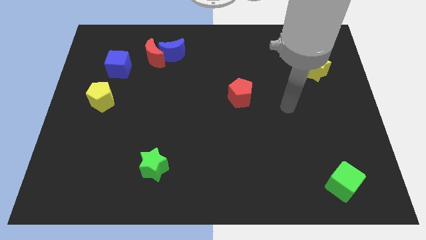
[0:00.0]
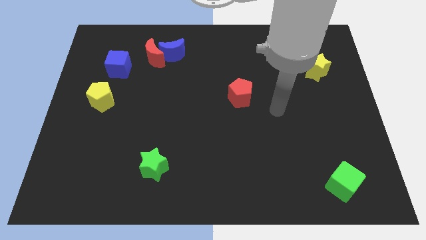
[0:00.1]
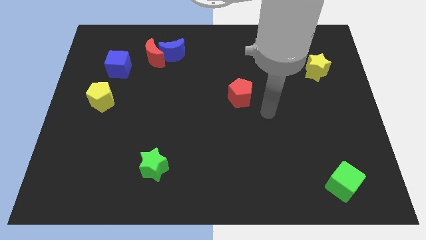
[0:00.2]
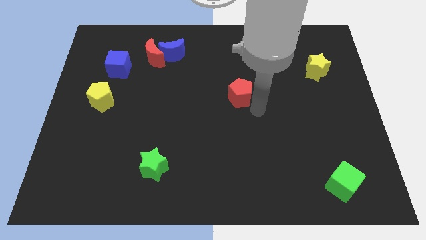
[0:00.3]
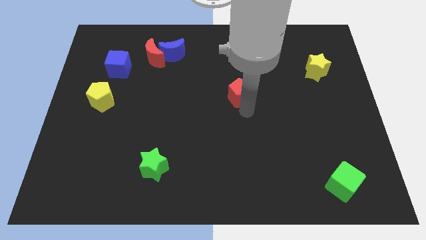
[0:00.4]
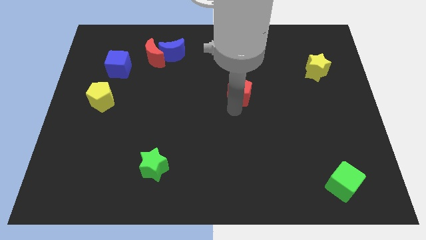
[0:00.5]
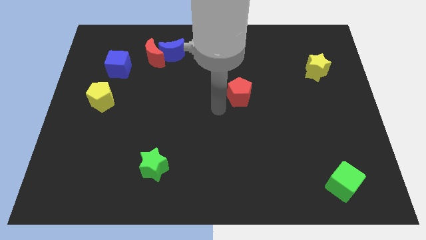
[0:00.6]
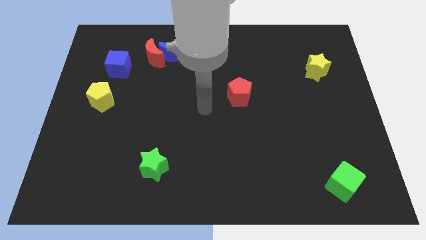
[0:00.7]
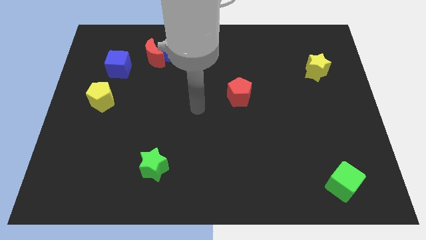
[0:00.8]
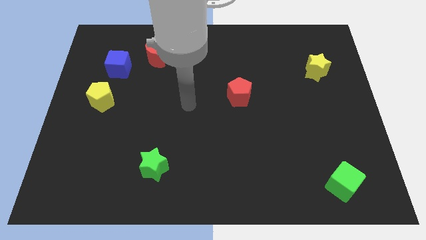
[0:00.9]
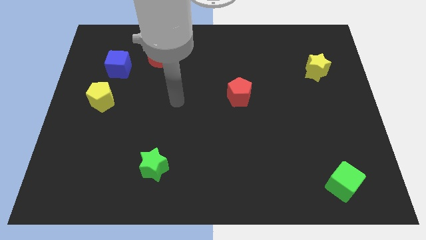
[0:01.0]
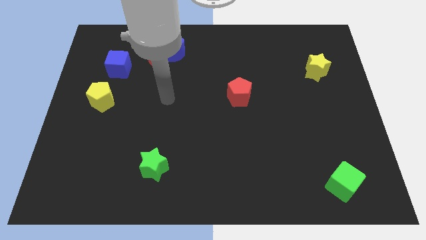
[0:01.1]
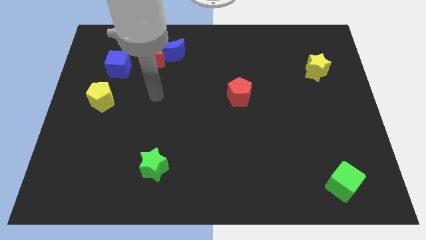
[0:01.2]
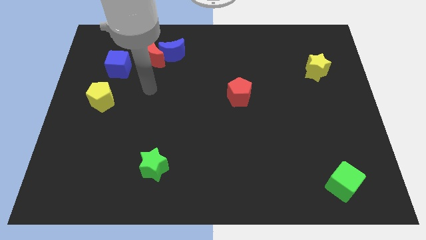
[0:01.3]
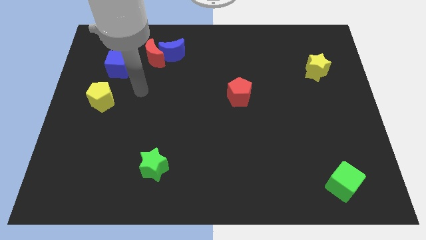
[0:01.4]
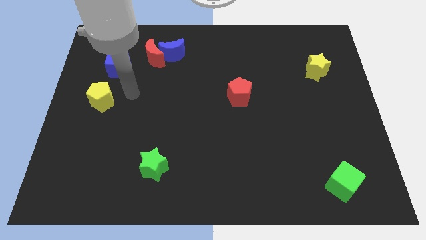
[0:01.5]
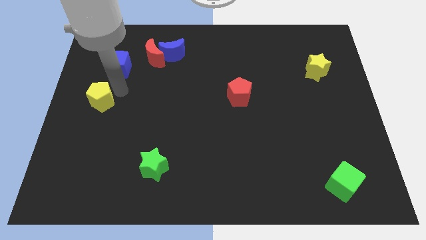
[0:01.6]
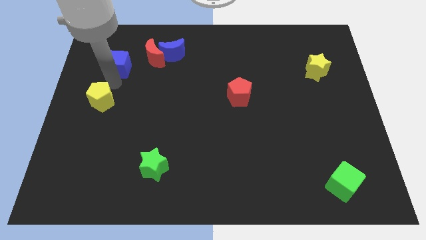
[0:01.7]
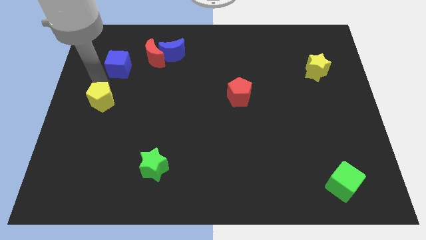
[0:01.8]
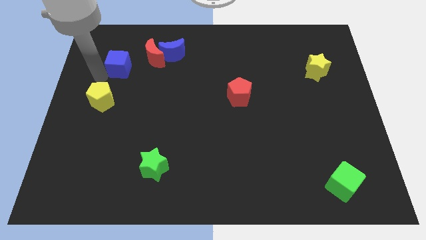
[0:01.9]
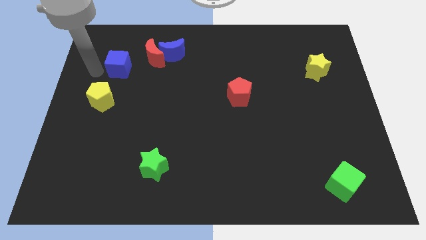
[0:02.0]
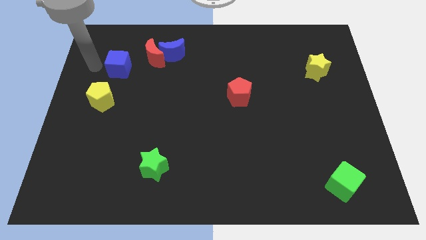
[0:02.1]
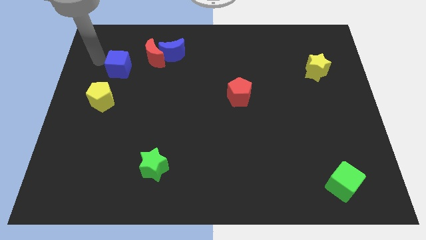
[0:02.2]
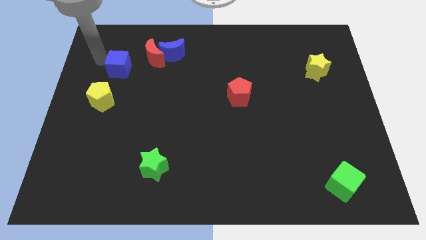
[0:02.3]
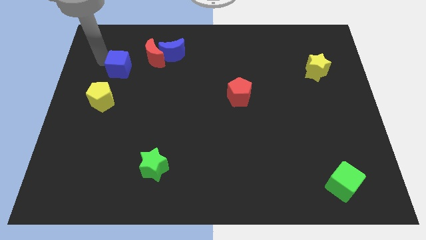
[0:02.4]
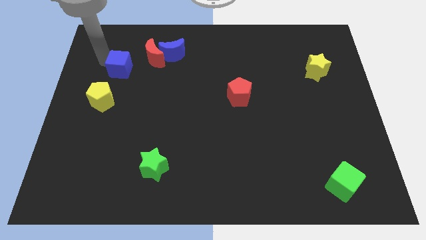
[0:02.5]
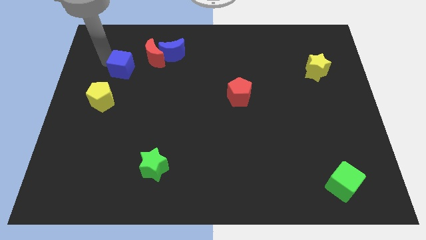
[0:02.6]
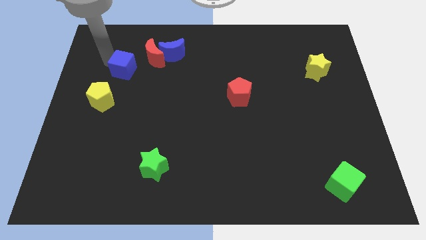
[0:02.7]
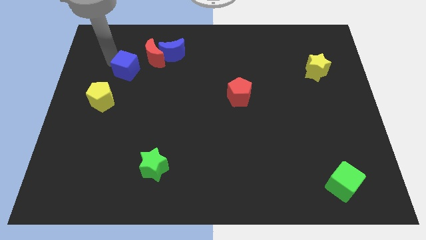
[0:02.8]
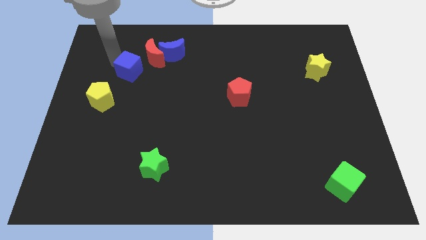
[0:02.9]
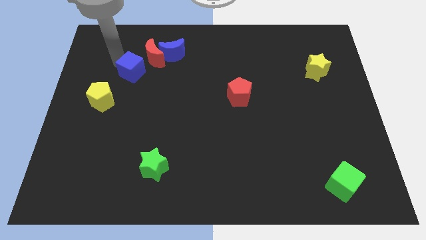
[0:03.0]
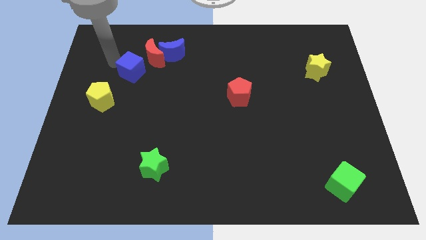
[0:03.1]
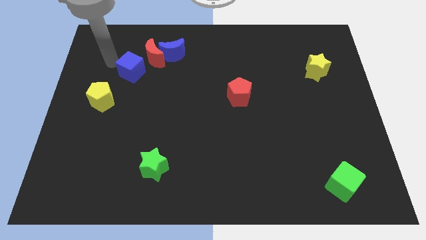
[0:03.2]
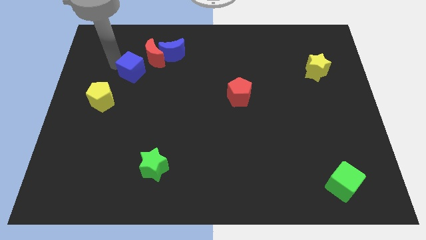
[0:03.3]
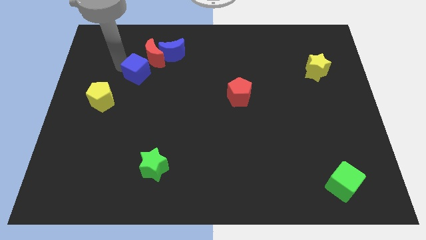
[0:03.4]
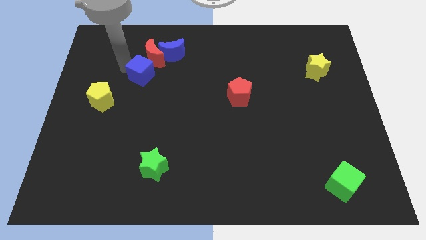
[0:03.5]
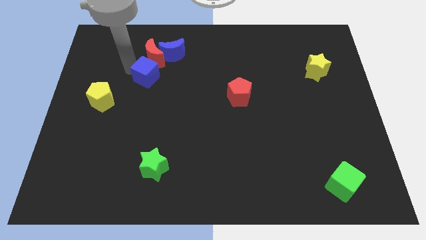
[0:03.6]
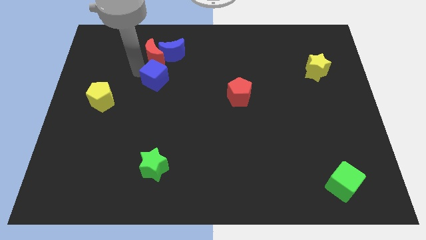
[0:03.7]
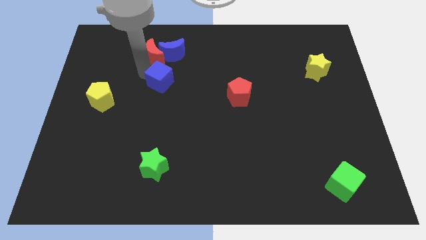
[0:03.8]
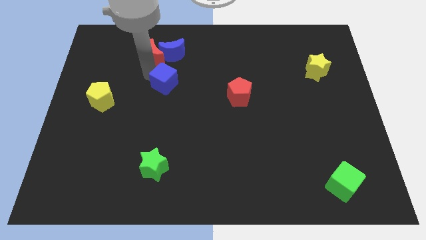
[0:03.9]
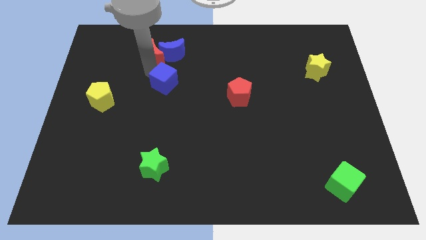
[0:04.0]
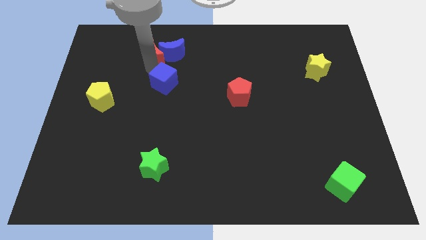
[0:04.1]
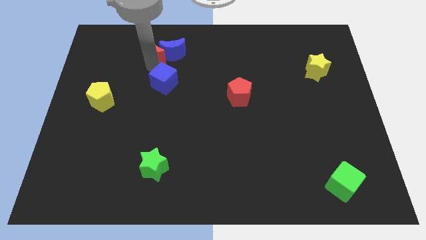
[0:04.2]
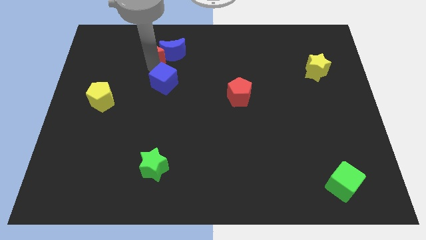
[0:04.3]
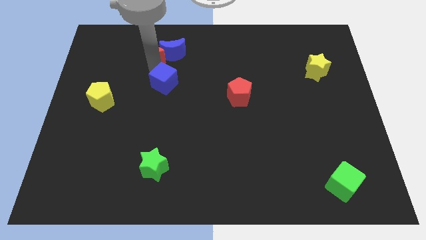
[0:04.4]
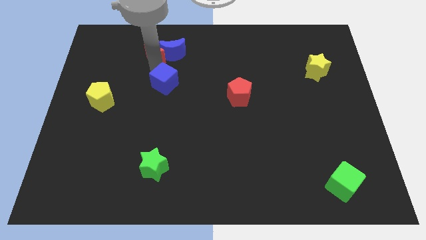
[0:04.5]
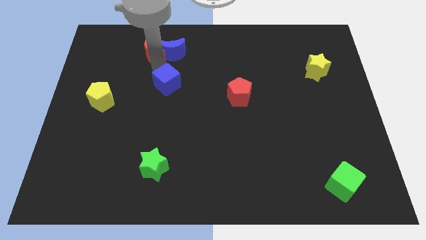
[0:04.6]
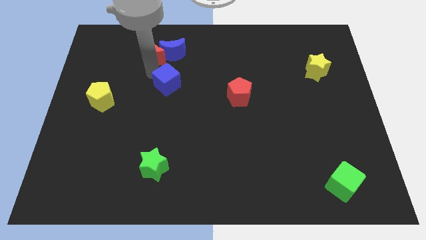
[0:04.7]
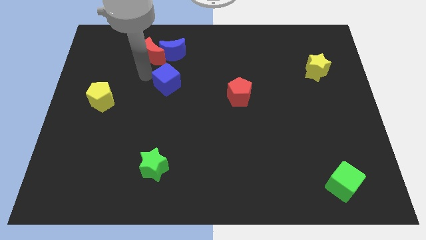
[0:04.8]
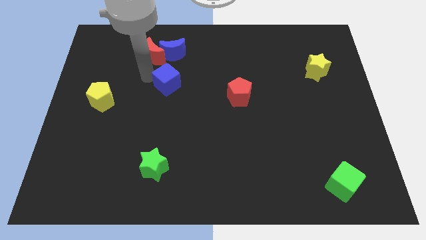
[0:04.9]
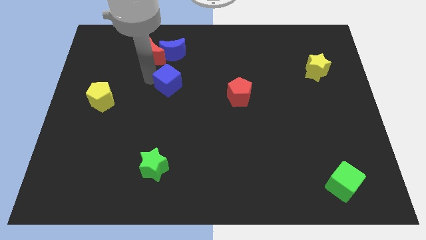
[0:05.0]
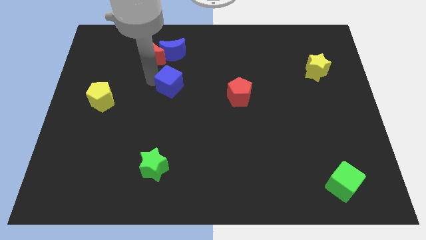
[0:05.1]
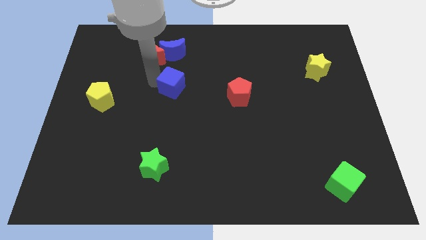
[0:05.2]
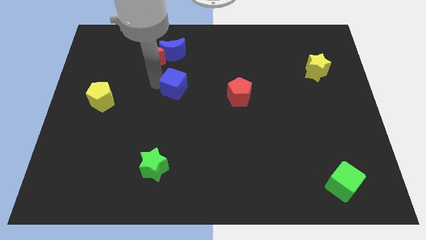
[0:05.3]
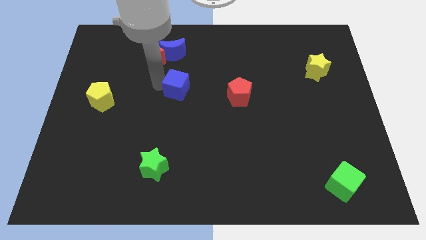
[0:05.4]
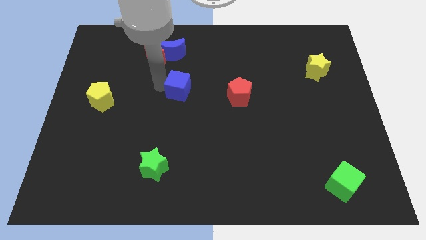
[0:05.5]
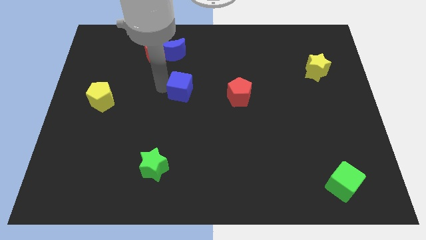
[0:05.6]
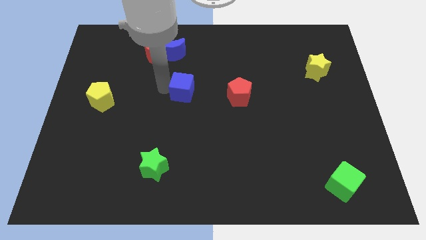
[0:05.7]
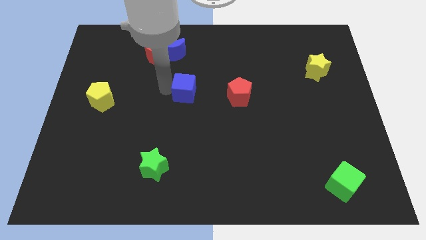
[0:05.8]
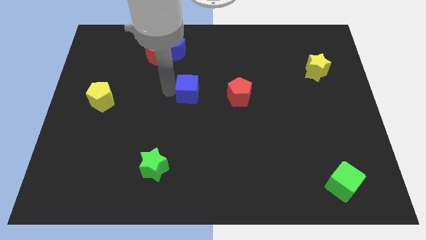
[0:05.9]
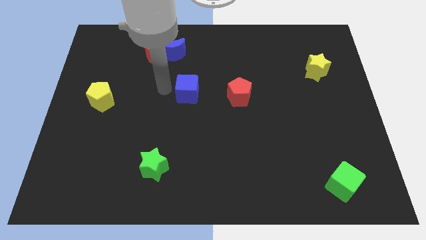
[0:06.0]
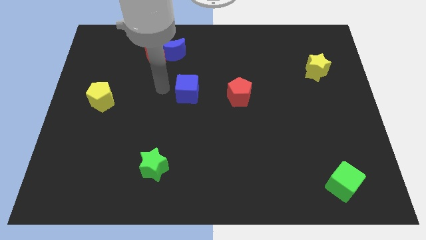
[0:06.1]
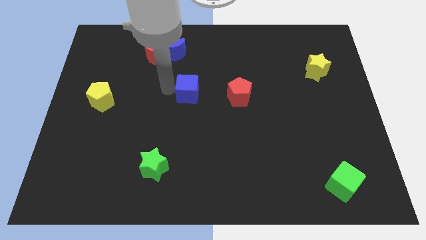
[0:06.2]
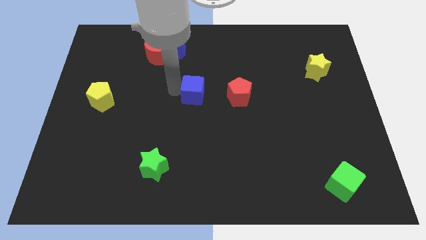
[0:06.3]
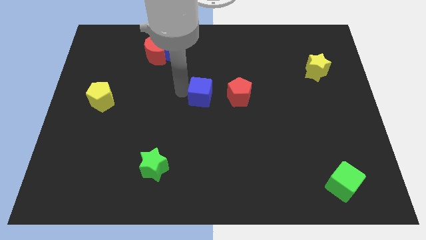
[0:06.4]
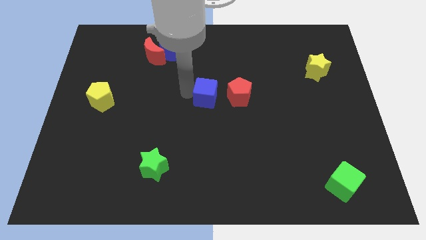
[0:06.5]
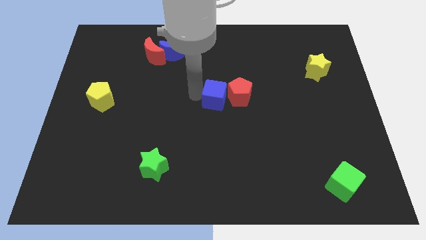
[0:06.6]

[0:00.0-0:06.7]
slide the blue cube close to the red pentagon

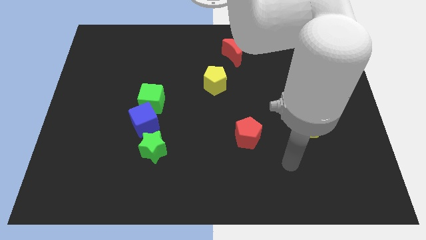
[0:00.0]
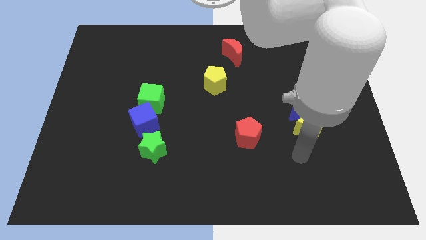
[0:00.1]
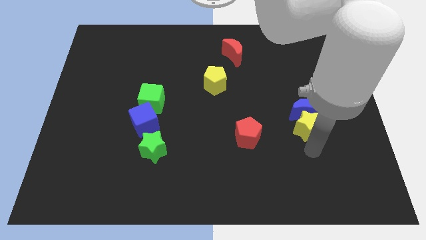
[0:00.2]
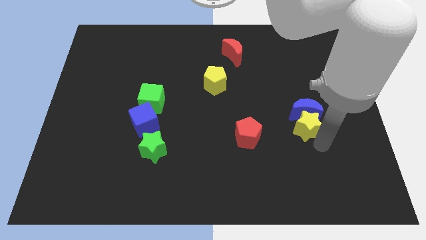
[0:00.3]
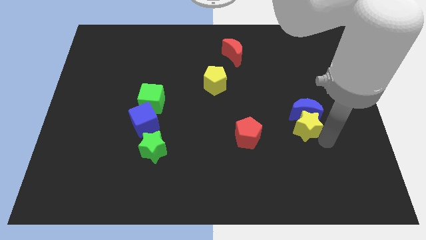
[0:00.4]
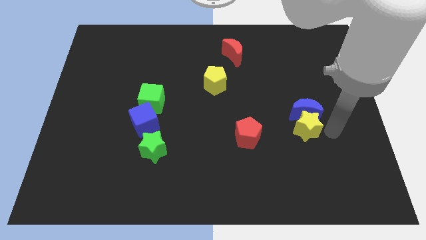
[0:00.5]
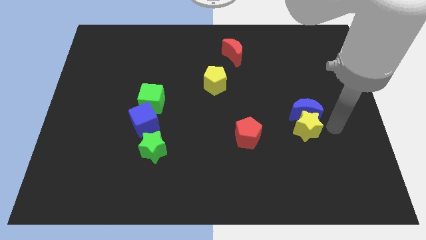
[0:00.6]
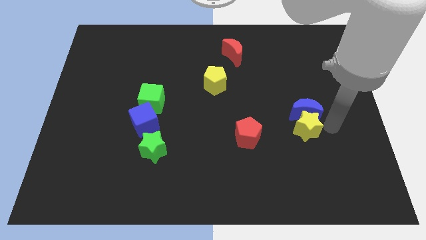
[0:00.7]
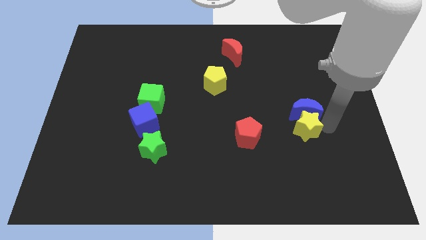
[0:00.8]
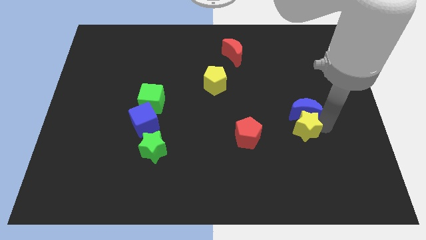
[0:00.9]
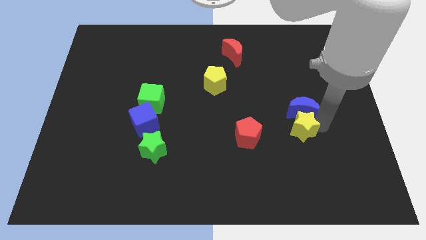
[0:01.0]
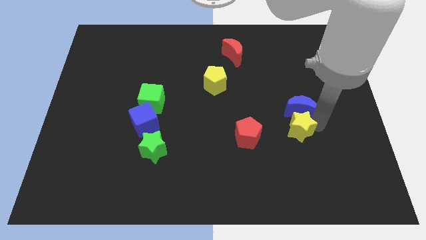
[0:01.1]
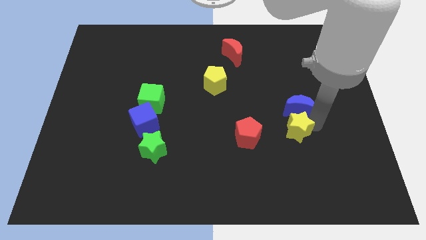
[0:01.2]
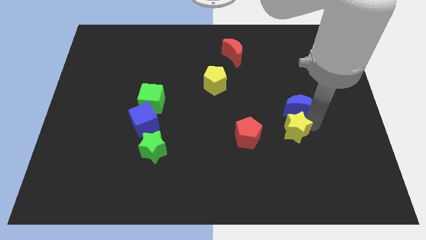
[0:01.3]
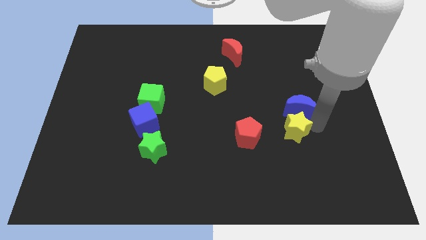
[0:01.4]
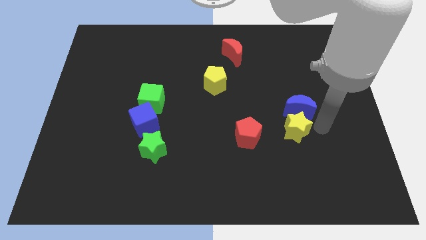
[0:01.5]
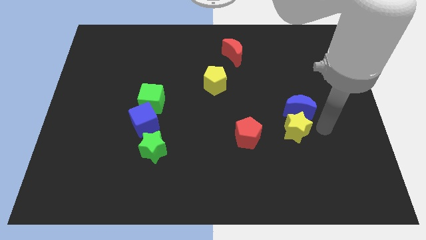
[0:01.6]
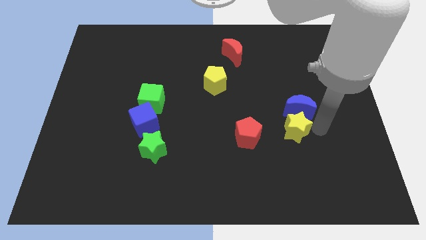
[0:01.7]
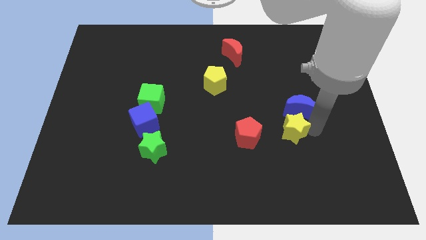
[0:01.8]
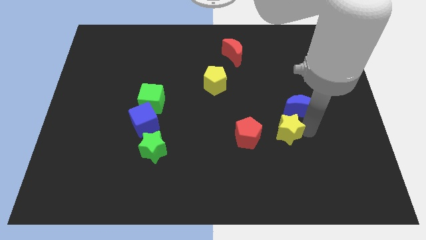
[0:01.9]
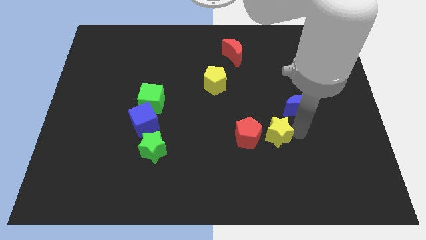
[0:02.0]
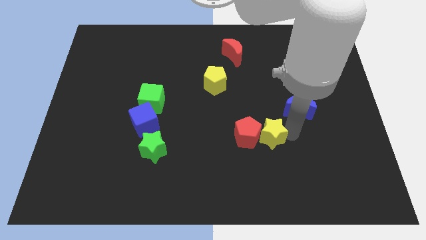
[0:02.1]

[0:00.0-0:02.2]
push the yellow star towards the red pentagon
